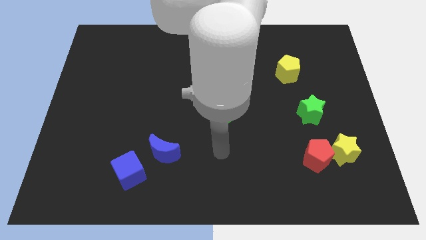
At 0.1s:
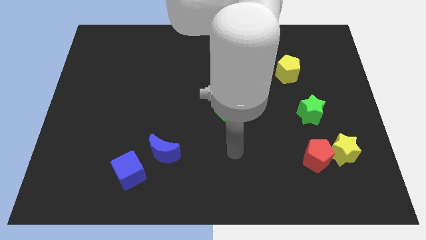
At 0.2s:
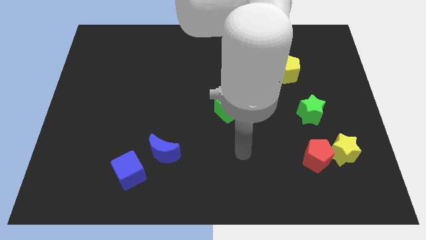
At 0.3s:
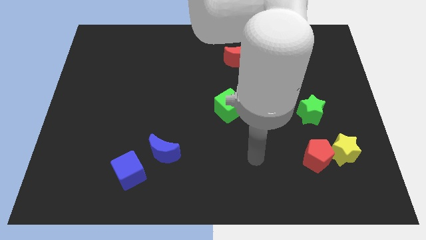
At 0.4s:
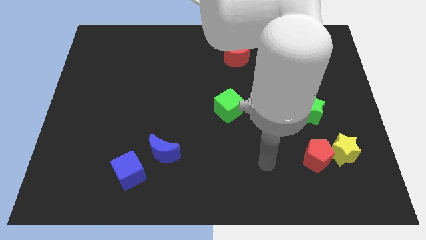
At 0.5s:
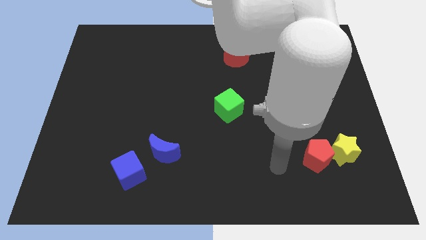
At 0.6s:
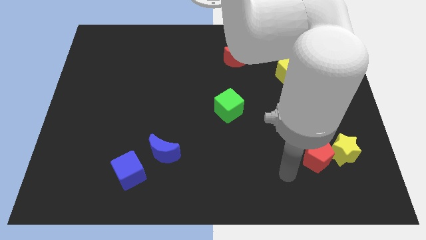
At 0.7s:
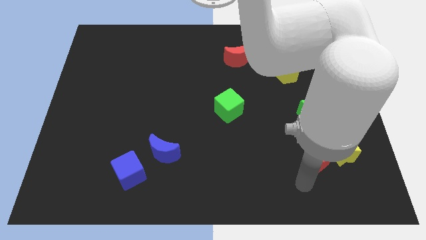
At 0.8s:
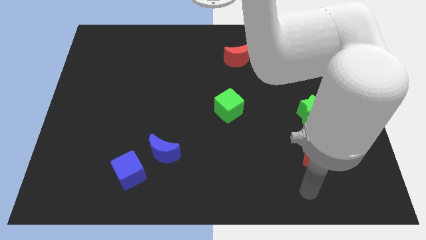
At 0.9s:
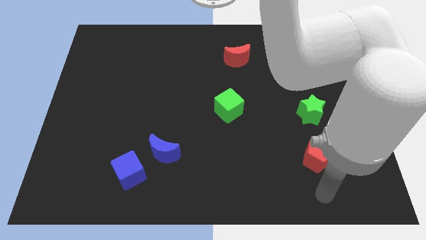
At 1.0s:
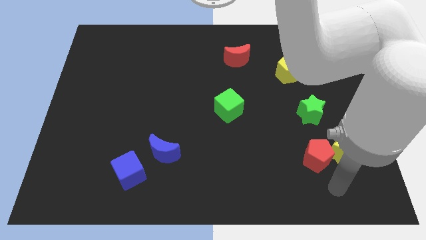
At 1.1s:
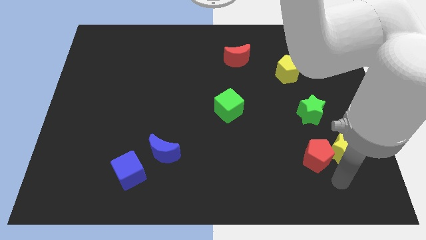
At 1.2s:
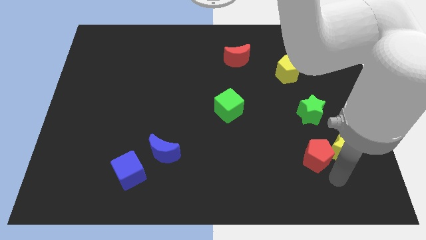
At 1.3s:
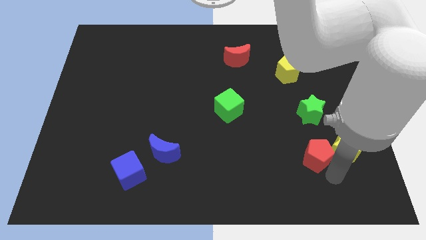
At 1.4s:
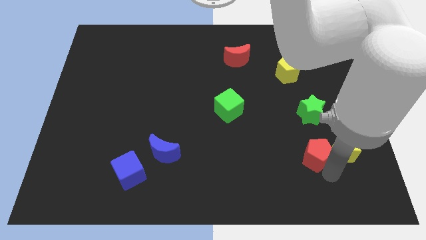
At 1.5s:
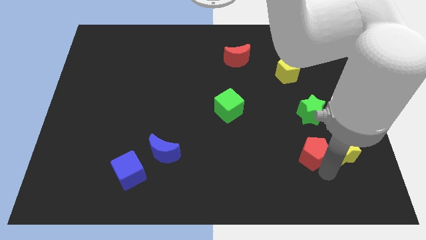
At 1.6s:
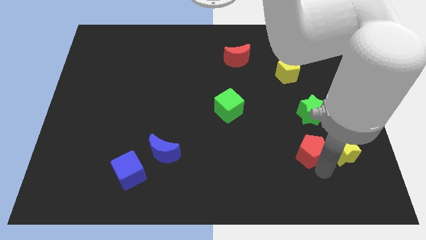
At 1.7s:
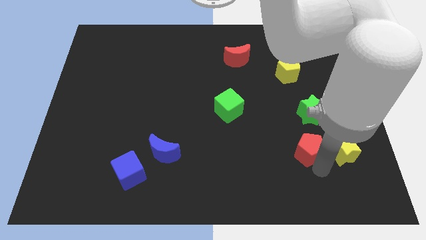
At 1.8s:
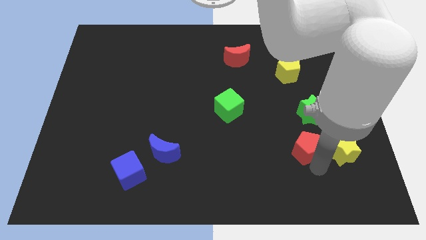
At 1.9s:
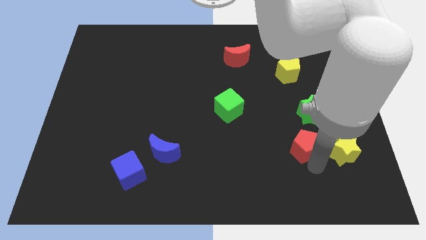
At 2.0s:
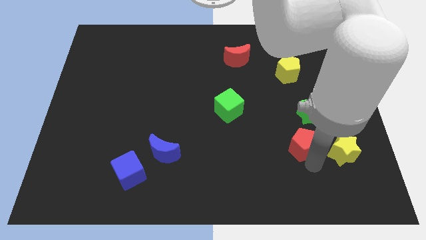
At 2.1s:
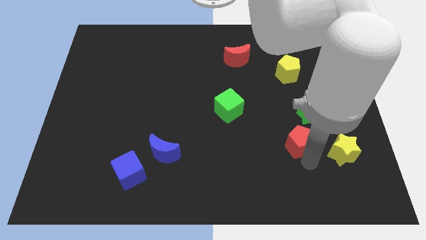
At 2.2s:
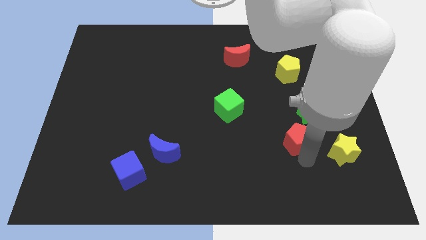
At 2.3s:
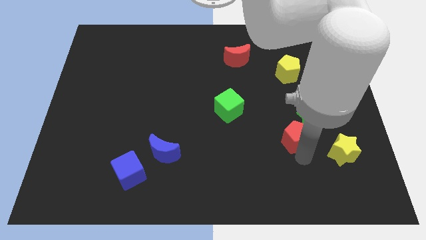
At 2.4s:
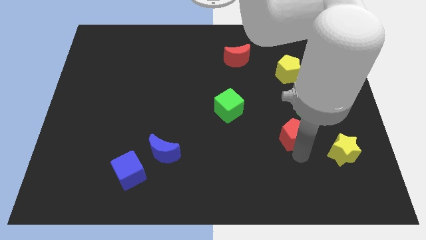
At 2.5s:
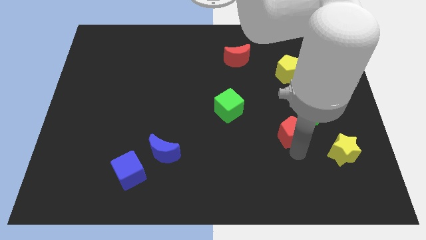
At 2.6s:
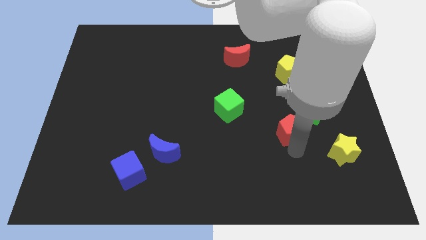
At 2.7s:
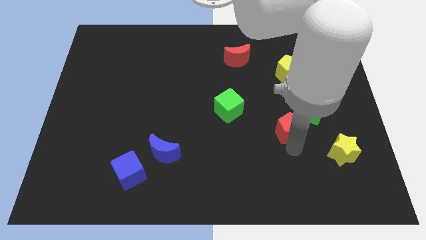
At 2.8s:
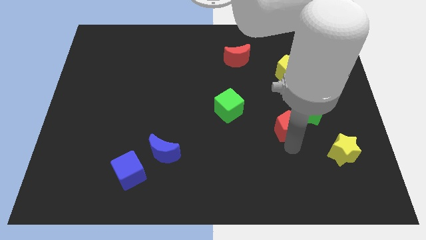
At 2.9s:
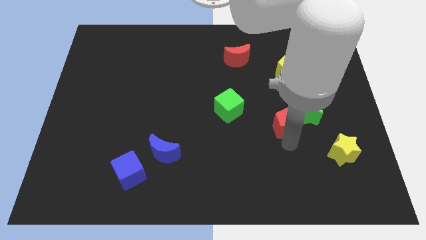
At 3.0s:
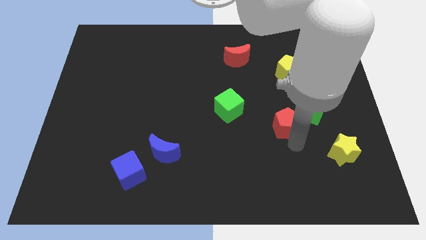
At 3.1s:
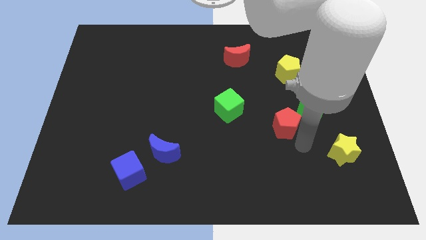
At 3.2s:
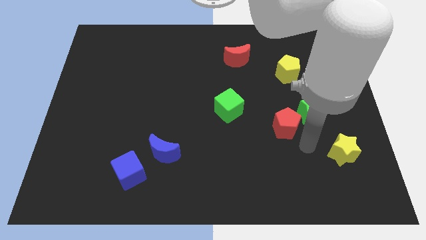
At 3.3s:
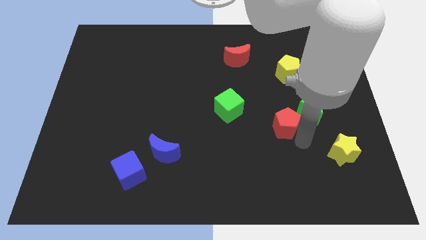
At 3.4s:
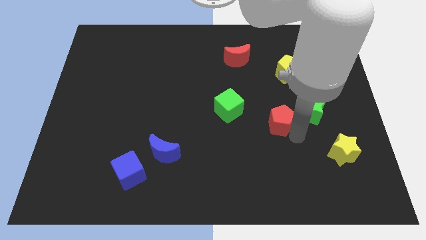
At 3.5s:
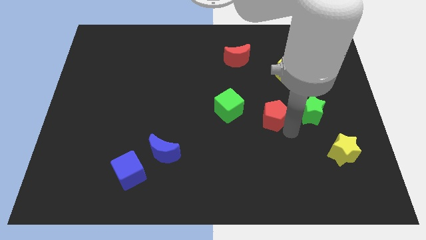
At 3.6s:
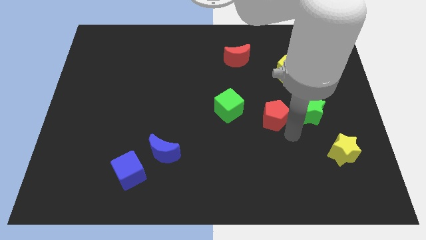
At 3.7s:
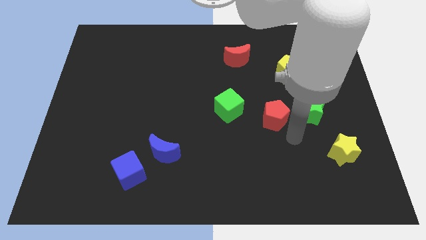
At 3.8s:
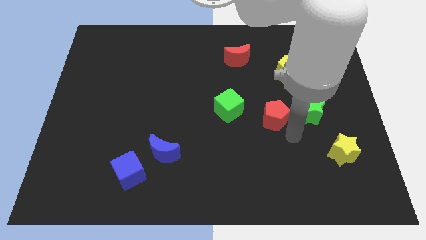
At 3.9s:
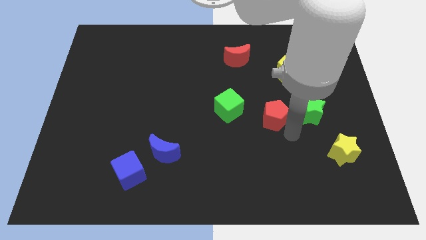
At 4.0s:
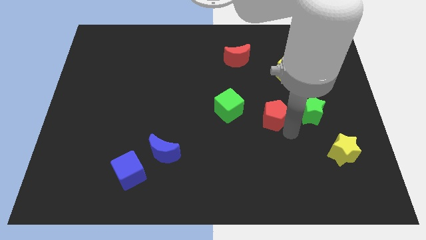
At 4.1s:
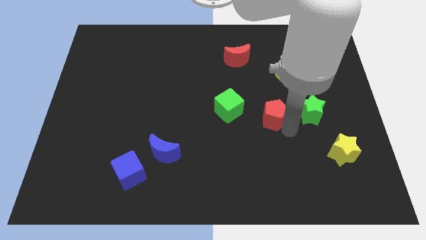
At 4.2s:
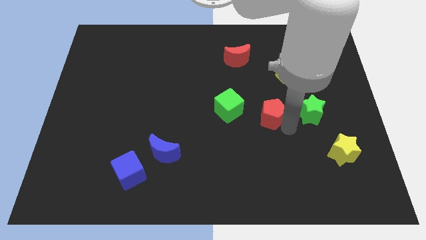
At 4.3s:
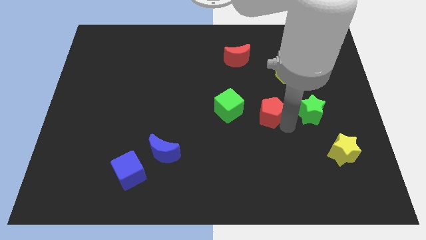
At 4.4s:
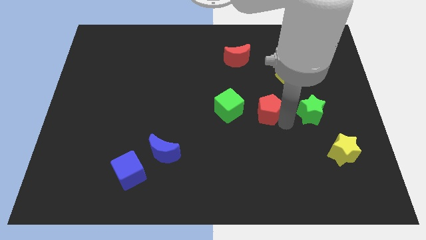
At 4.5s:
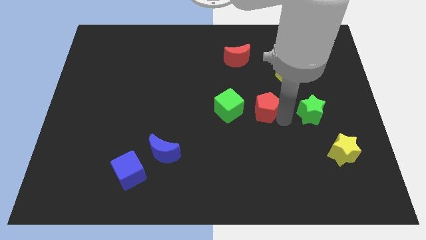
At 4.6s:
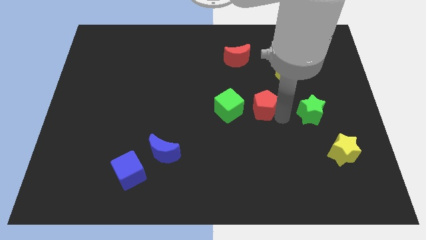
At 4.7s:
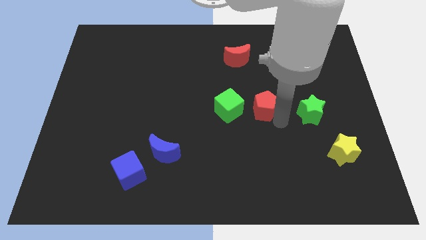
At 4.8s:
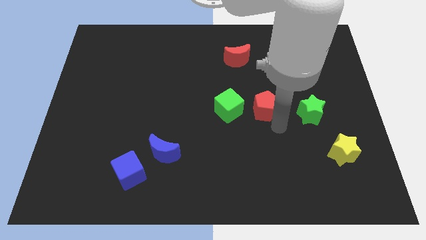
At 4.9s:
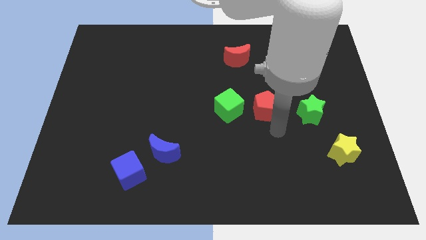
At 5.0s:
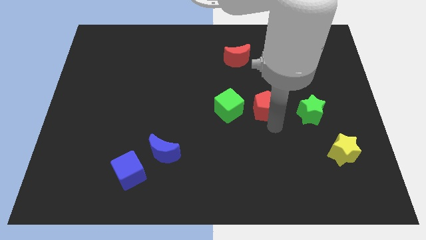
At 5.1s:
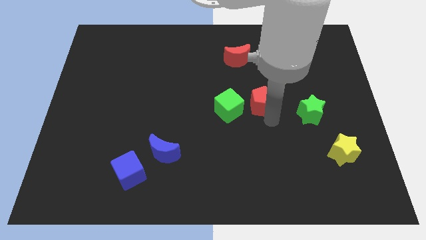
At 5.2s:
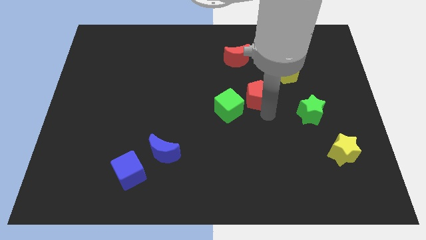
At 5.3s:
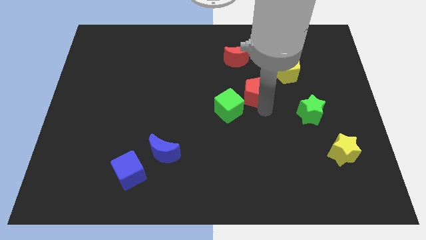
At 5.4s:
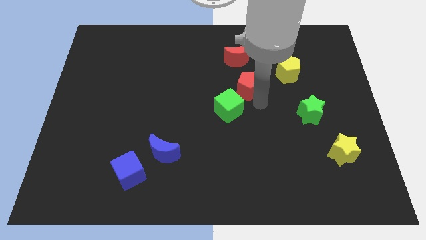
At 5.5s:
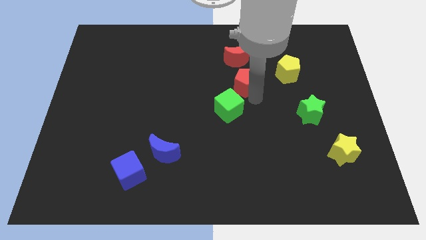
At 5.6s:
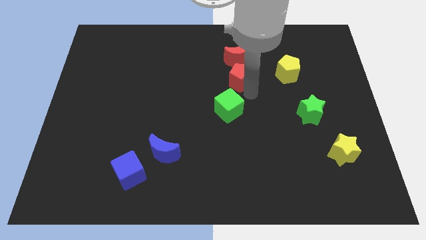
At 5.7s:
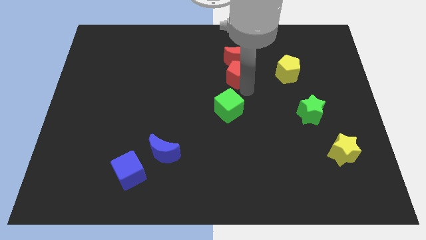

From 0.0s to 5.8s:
put the red pentagon to the red moon

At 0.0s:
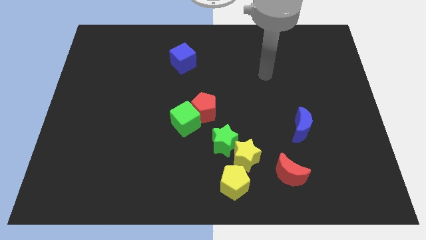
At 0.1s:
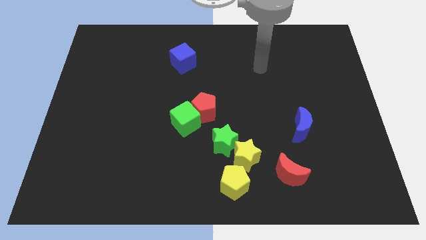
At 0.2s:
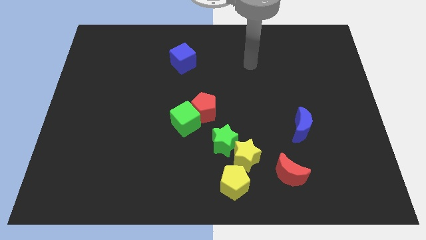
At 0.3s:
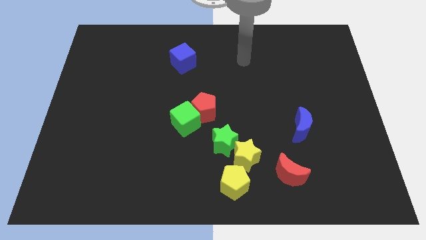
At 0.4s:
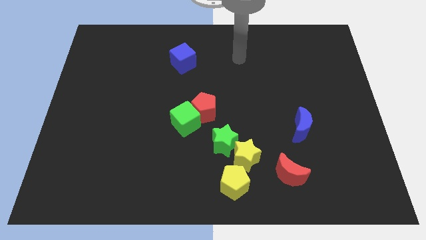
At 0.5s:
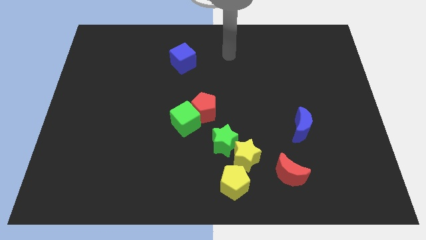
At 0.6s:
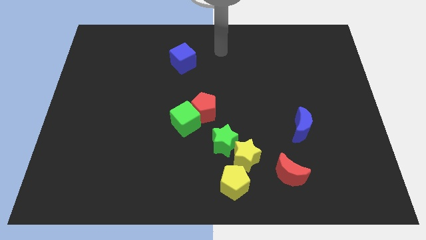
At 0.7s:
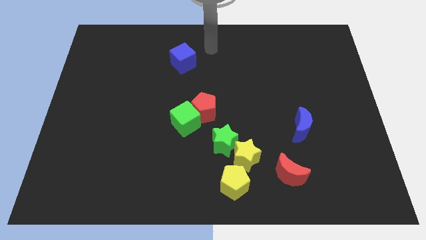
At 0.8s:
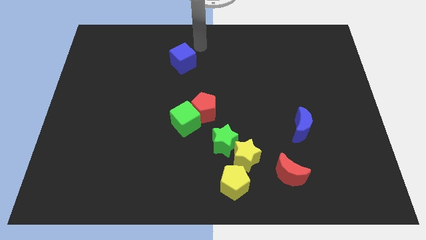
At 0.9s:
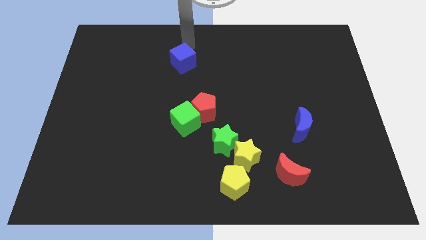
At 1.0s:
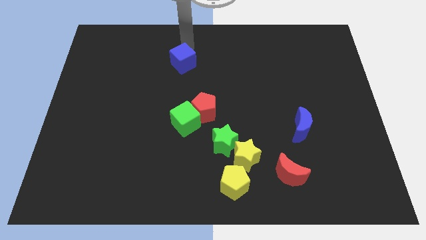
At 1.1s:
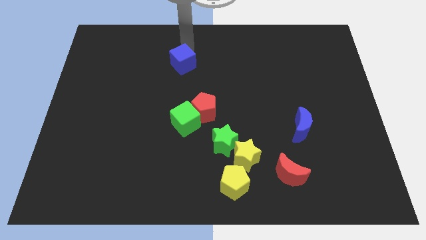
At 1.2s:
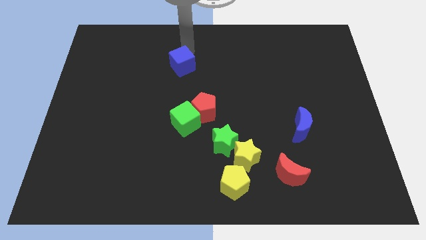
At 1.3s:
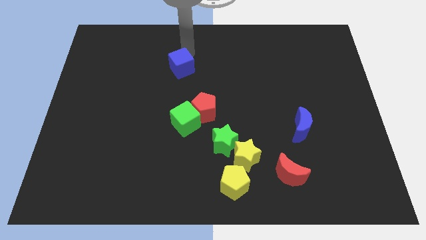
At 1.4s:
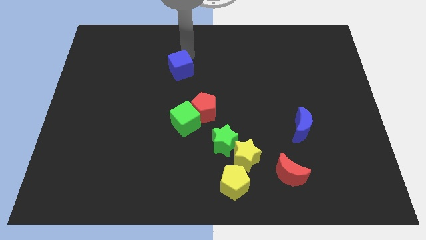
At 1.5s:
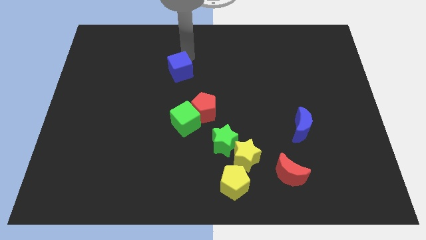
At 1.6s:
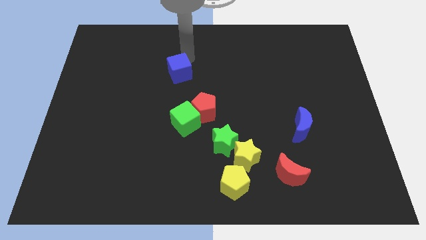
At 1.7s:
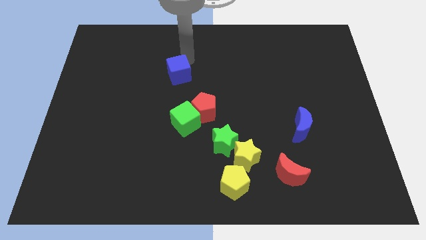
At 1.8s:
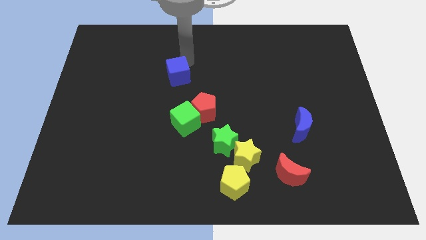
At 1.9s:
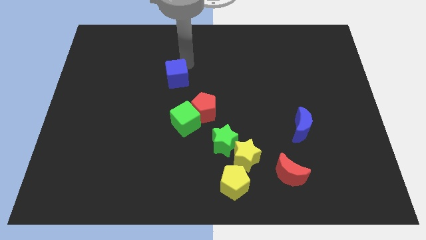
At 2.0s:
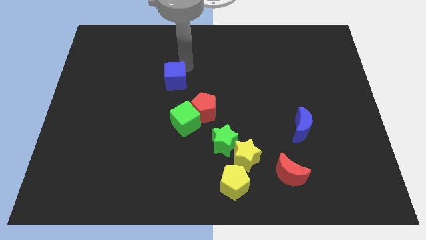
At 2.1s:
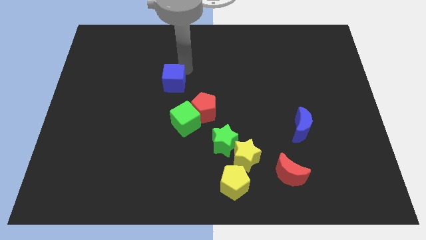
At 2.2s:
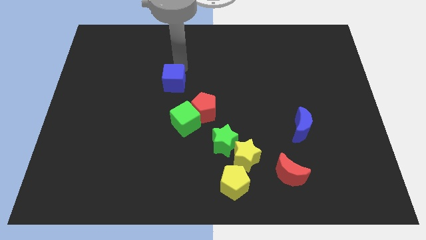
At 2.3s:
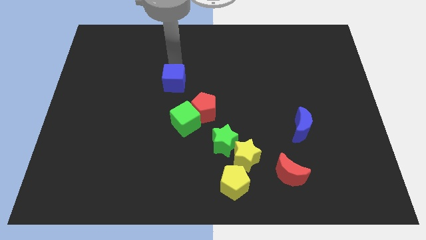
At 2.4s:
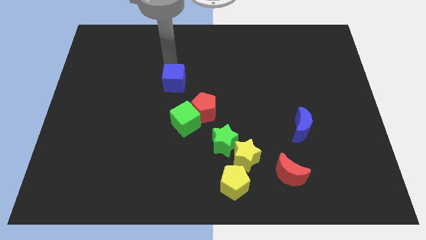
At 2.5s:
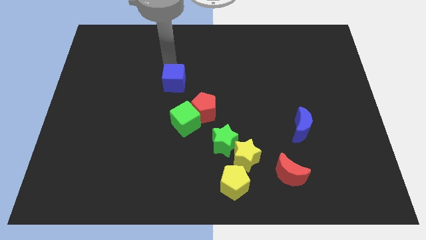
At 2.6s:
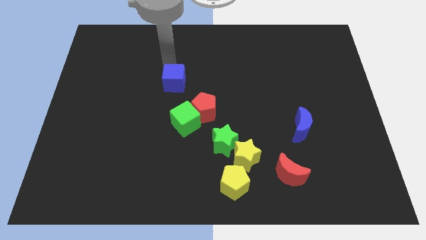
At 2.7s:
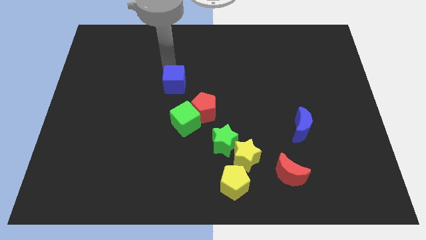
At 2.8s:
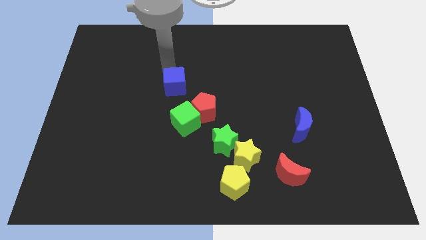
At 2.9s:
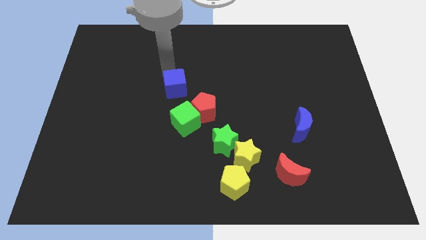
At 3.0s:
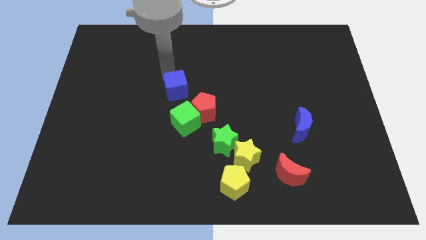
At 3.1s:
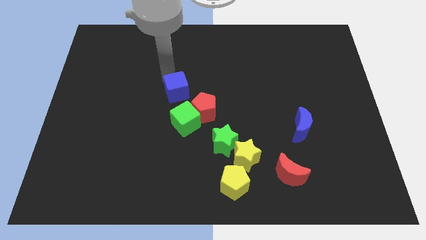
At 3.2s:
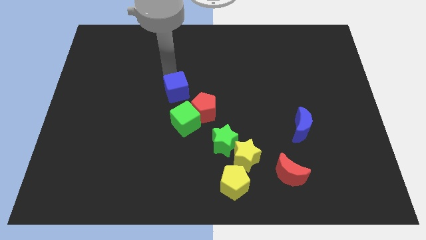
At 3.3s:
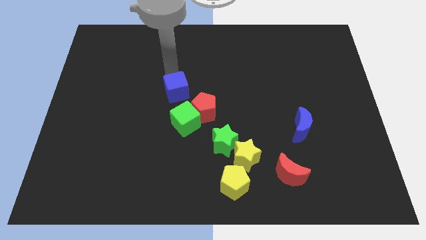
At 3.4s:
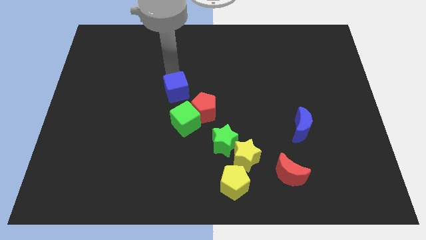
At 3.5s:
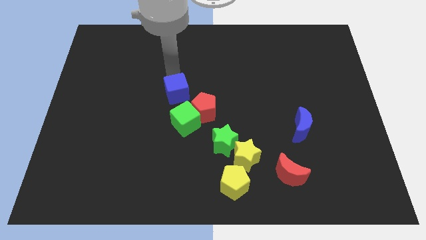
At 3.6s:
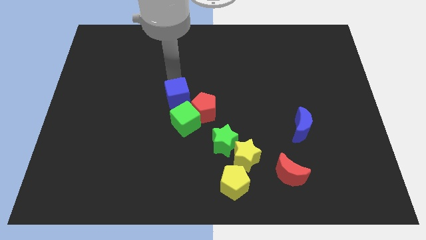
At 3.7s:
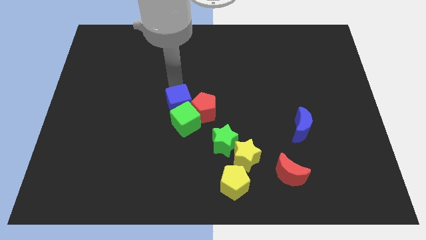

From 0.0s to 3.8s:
push the blue cube to the green cube
